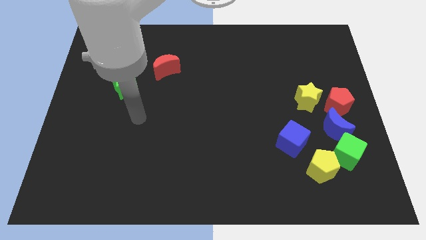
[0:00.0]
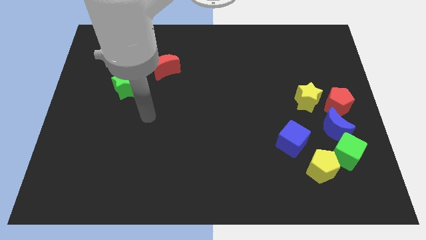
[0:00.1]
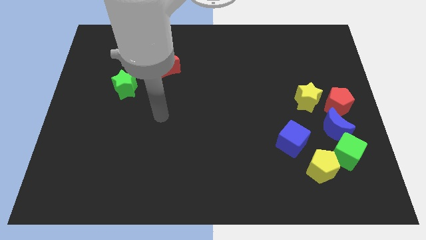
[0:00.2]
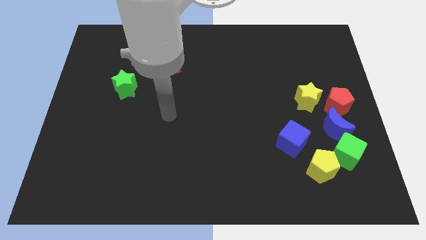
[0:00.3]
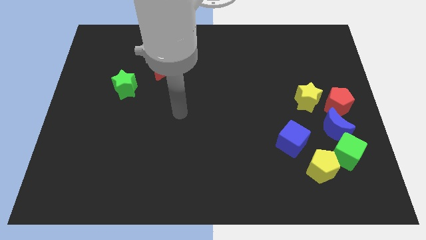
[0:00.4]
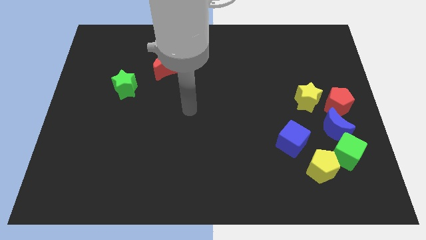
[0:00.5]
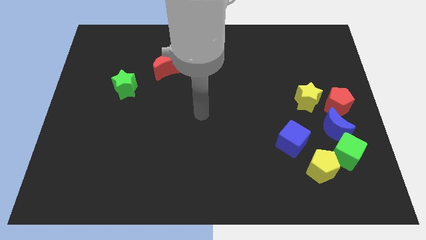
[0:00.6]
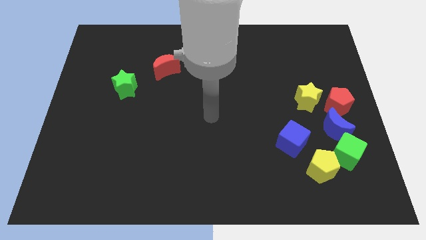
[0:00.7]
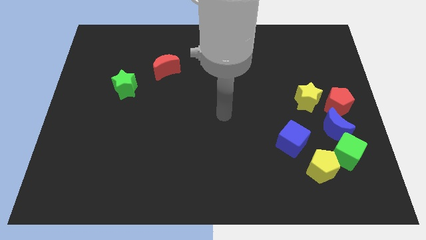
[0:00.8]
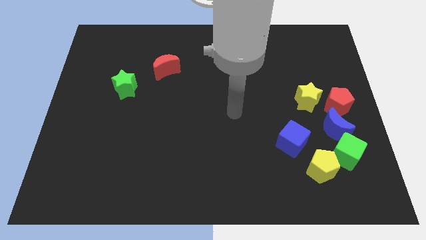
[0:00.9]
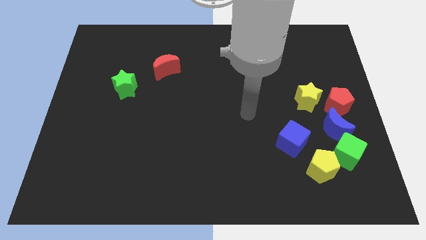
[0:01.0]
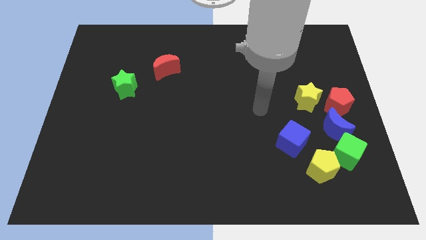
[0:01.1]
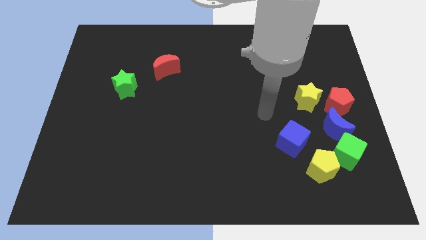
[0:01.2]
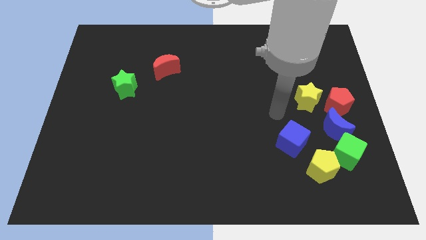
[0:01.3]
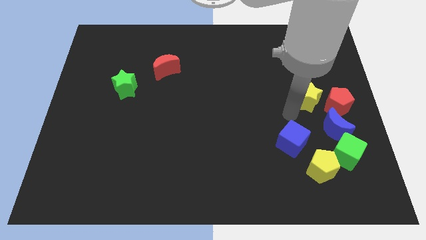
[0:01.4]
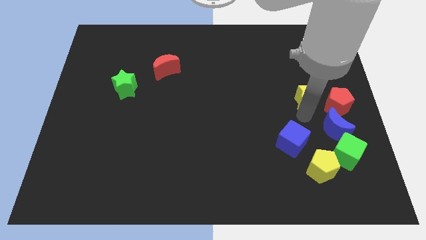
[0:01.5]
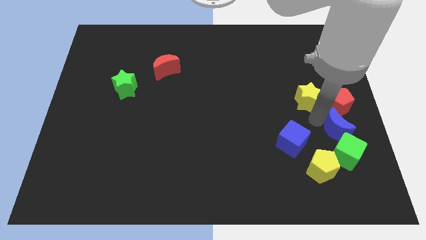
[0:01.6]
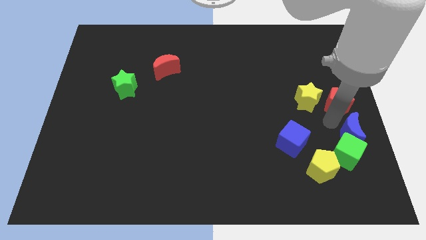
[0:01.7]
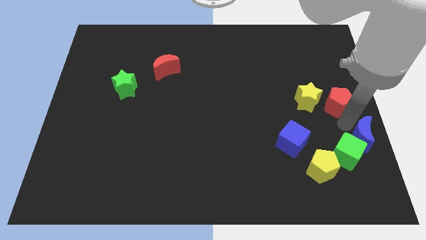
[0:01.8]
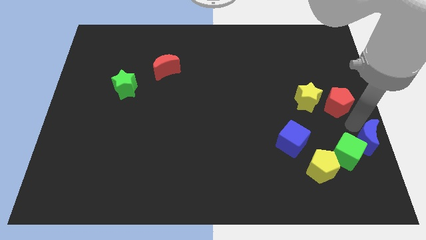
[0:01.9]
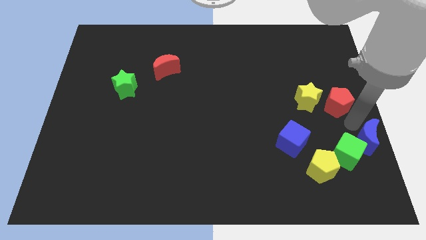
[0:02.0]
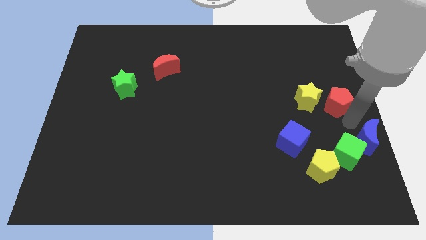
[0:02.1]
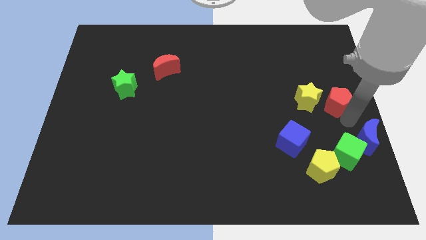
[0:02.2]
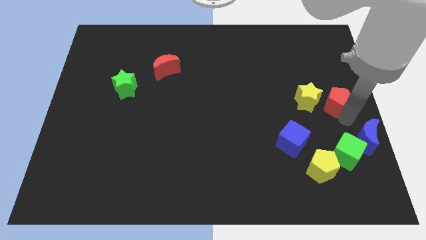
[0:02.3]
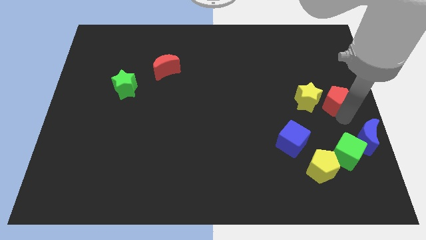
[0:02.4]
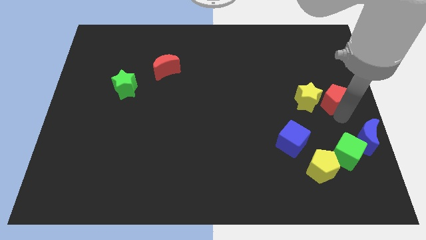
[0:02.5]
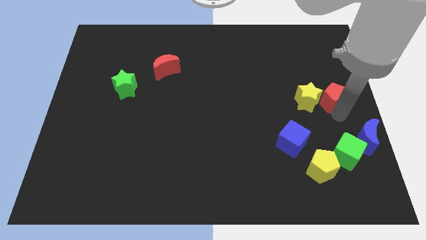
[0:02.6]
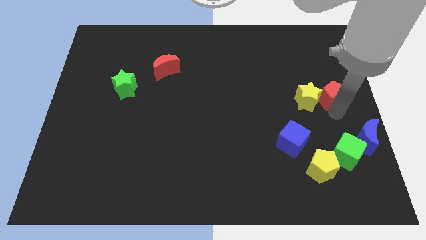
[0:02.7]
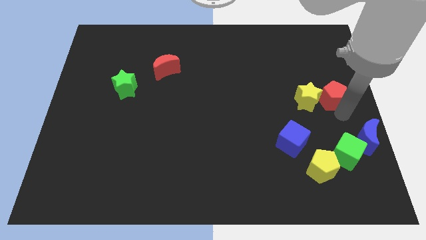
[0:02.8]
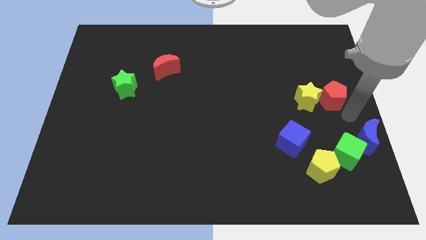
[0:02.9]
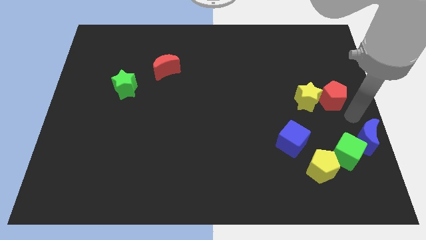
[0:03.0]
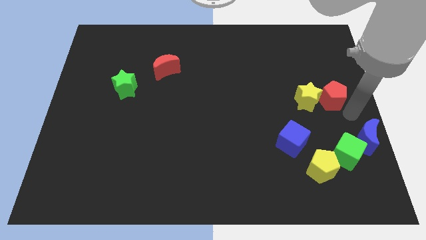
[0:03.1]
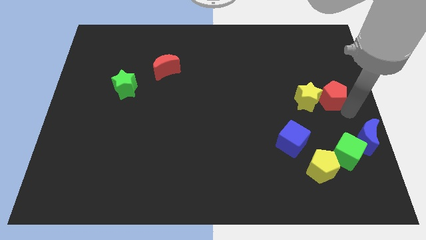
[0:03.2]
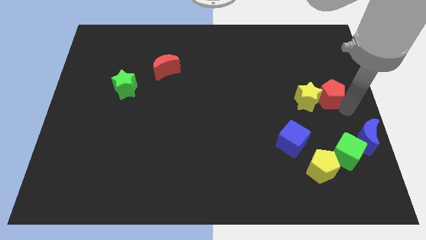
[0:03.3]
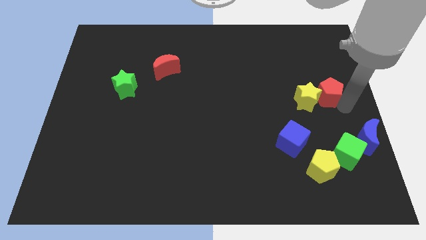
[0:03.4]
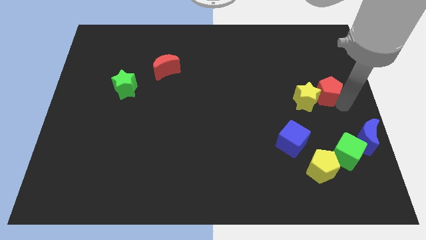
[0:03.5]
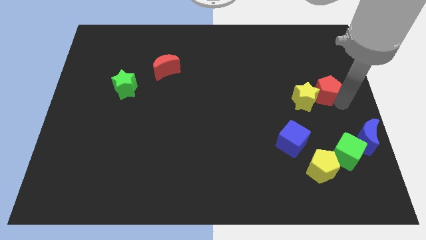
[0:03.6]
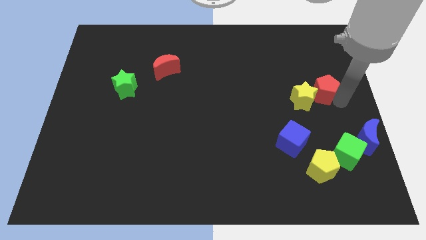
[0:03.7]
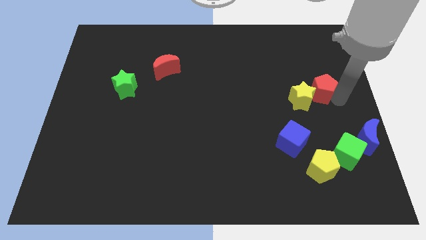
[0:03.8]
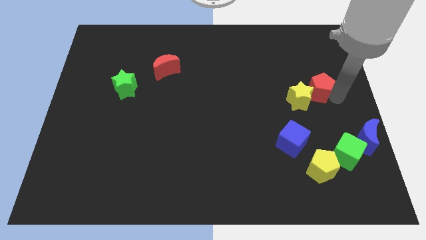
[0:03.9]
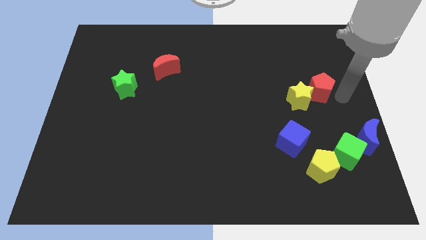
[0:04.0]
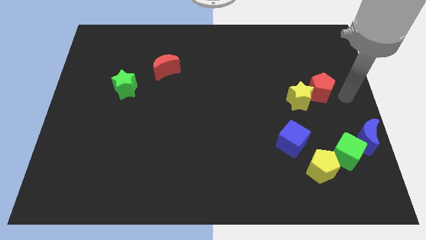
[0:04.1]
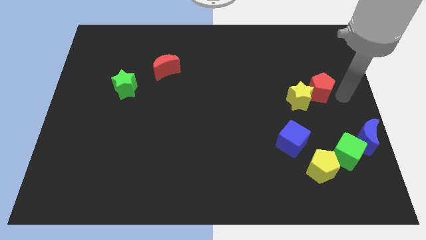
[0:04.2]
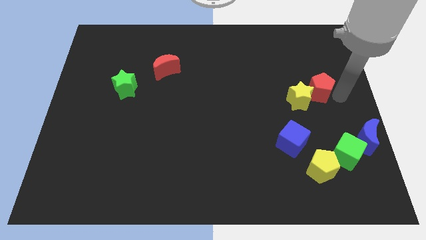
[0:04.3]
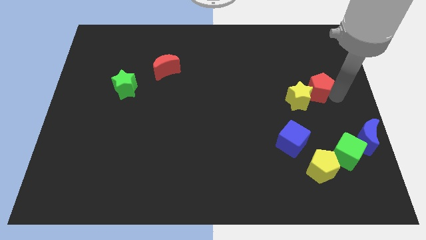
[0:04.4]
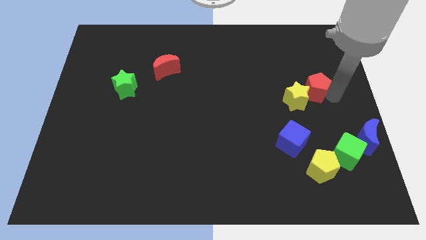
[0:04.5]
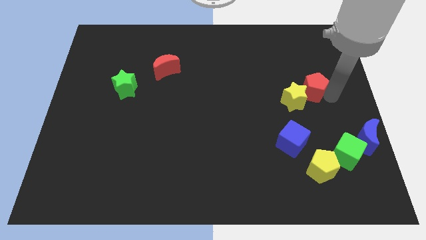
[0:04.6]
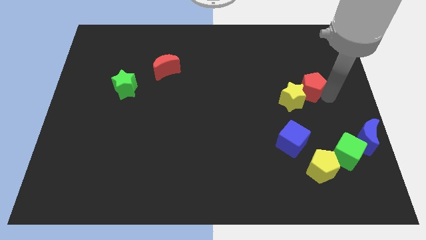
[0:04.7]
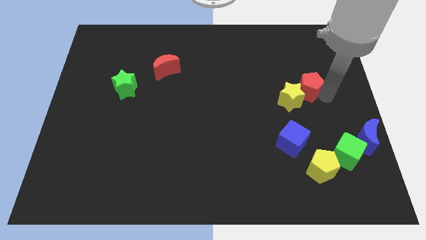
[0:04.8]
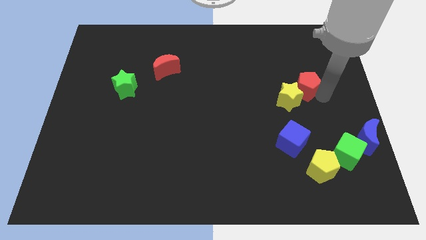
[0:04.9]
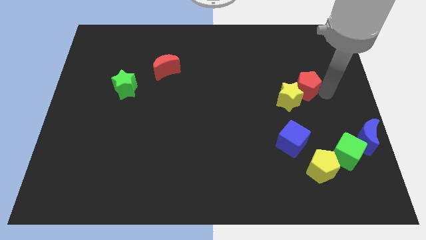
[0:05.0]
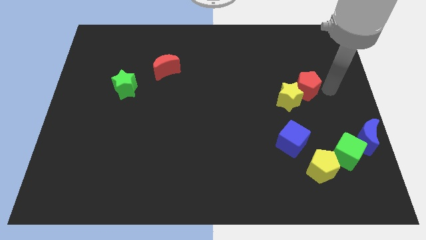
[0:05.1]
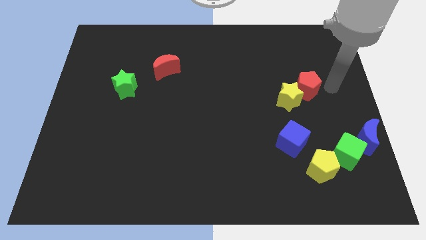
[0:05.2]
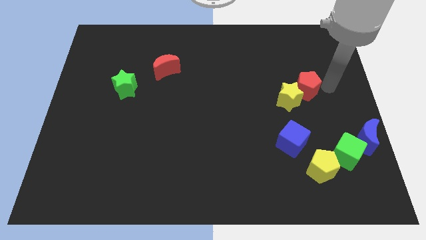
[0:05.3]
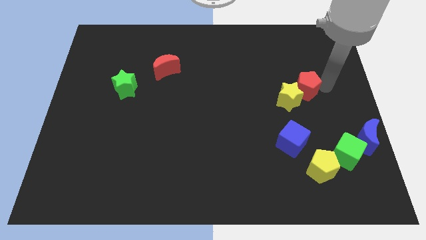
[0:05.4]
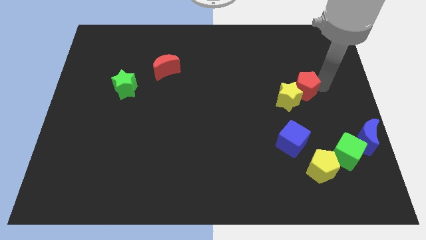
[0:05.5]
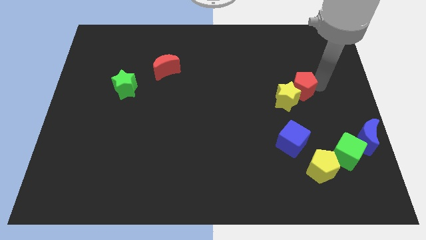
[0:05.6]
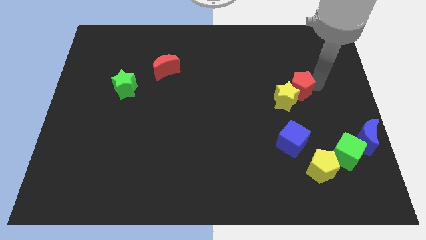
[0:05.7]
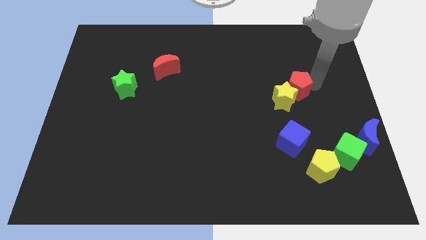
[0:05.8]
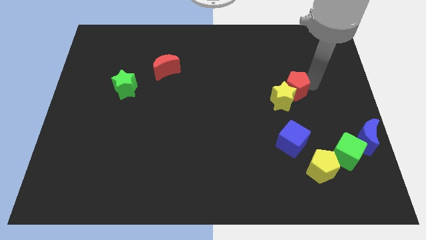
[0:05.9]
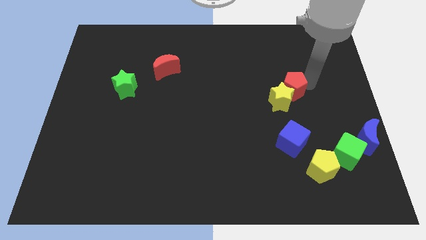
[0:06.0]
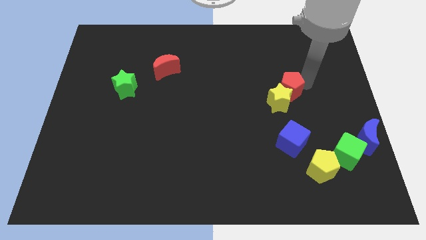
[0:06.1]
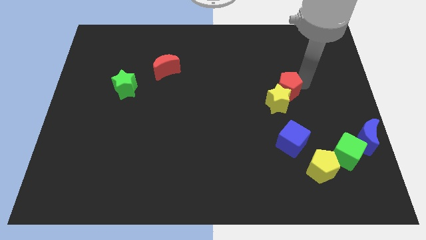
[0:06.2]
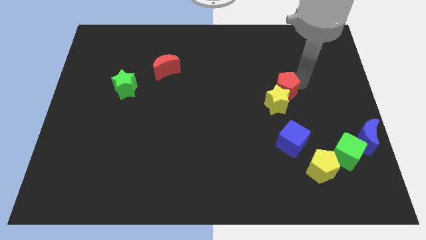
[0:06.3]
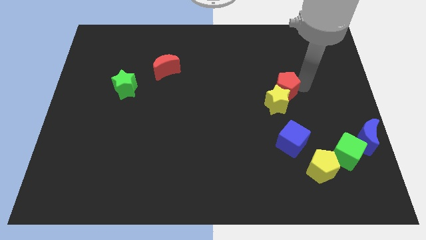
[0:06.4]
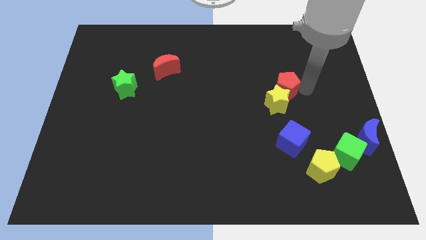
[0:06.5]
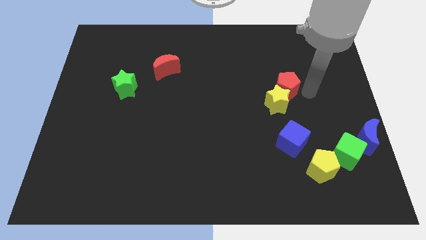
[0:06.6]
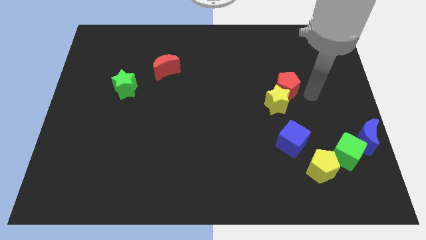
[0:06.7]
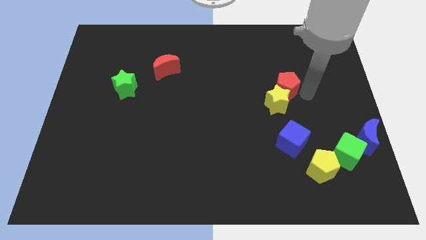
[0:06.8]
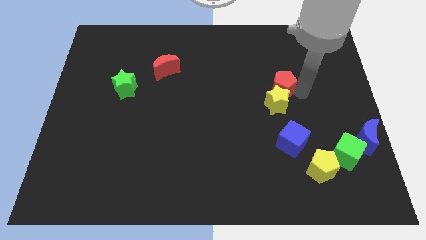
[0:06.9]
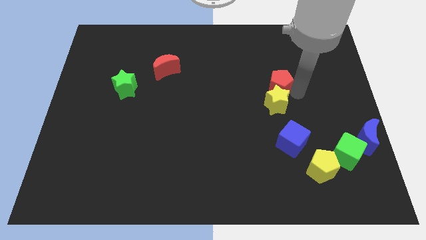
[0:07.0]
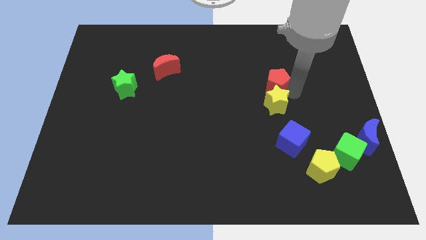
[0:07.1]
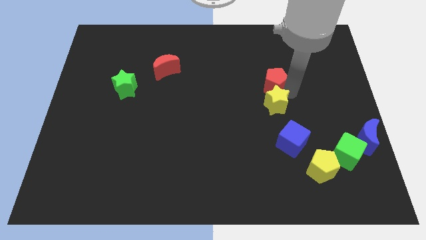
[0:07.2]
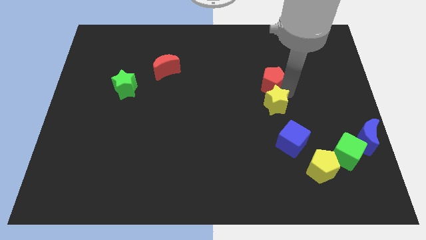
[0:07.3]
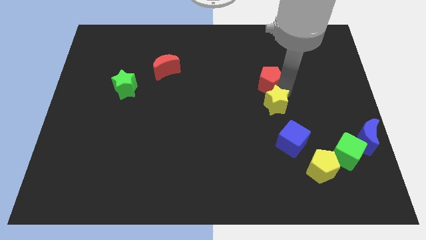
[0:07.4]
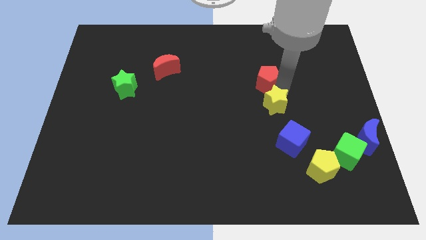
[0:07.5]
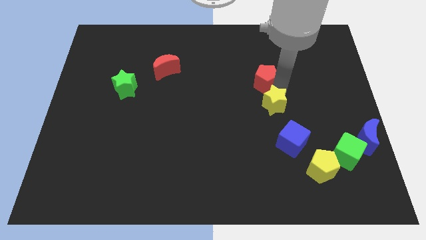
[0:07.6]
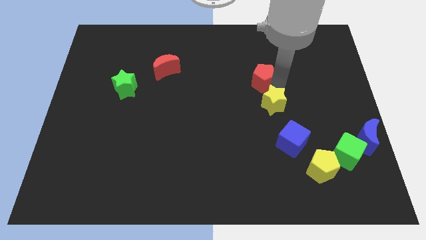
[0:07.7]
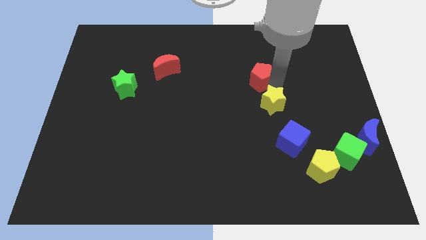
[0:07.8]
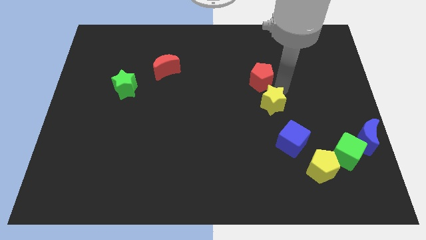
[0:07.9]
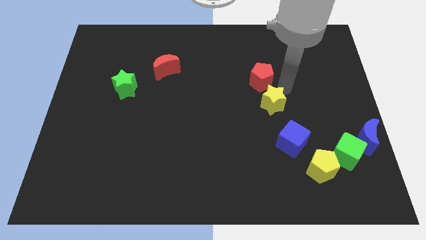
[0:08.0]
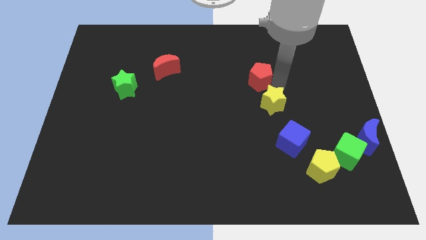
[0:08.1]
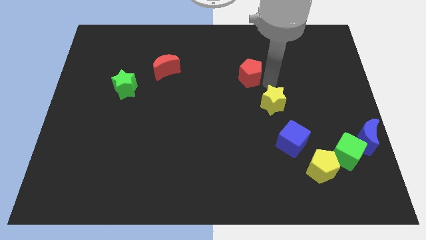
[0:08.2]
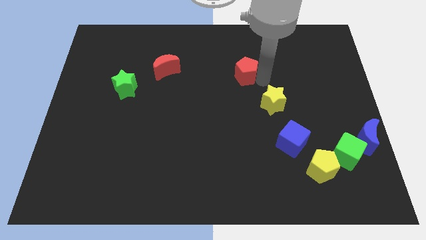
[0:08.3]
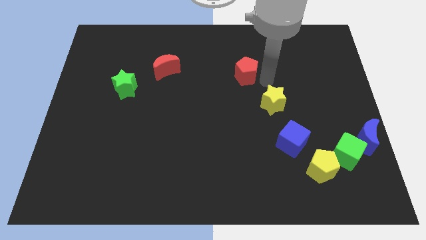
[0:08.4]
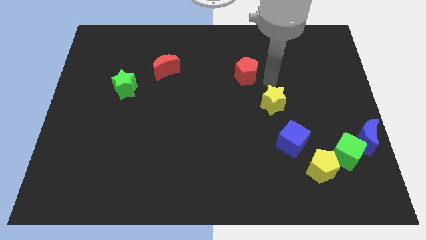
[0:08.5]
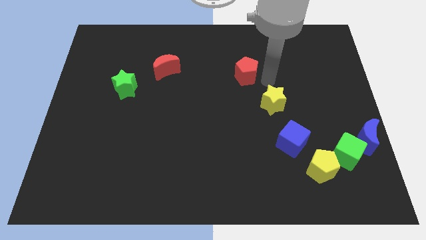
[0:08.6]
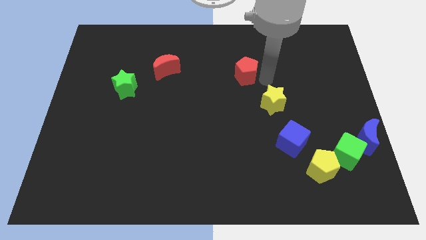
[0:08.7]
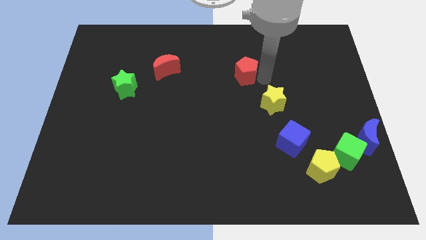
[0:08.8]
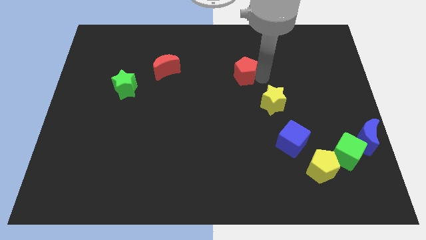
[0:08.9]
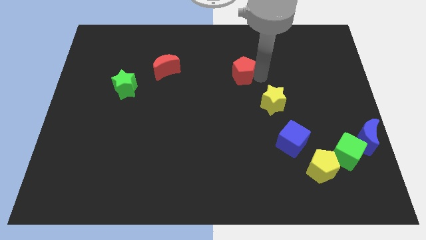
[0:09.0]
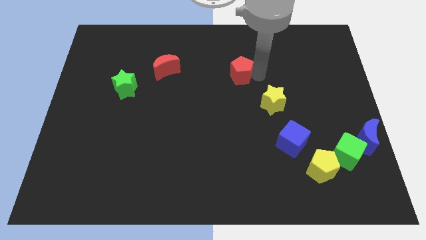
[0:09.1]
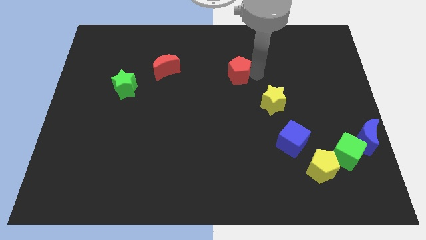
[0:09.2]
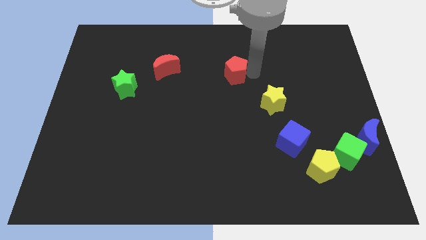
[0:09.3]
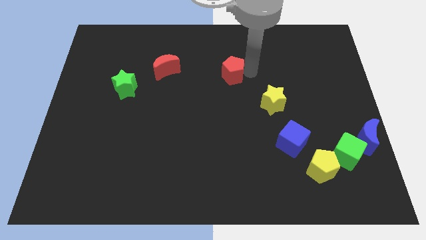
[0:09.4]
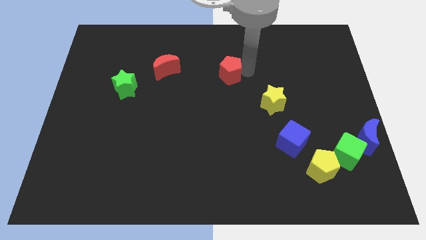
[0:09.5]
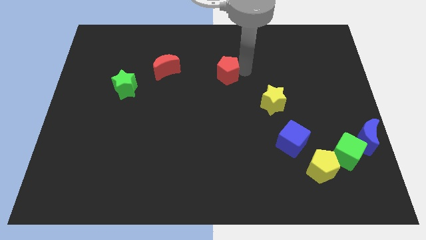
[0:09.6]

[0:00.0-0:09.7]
push the red pentagon right of the red moon
